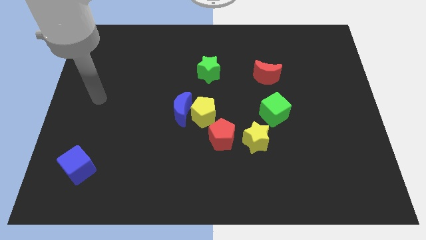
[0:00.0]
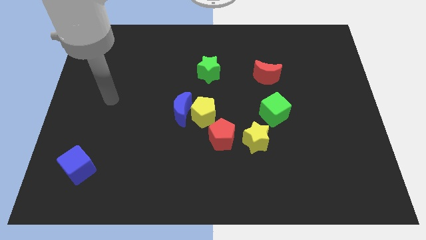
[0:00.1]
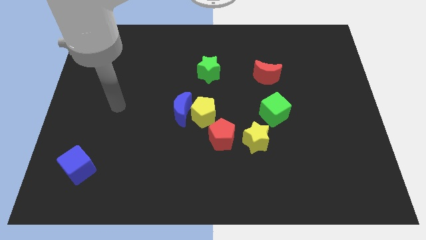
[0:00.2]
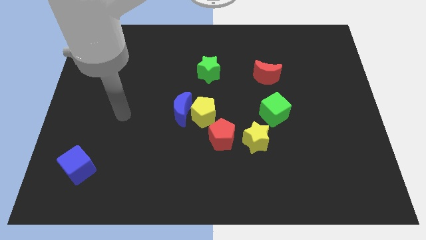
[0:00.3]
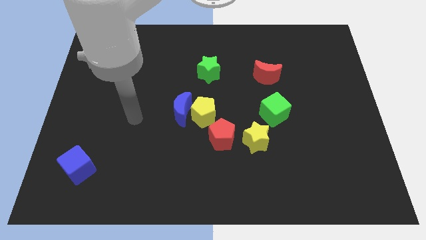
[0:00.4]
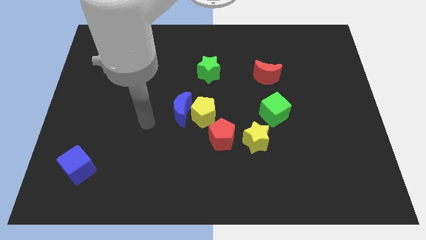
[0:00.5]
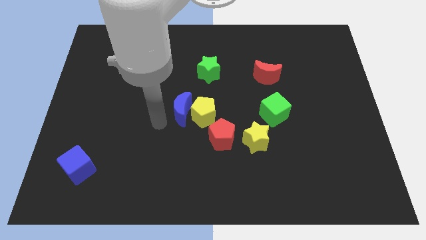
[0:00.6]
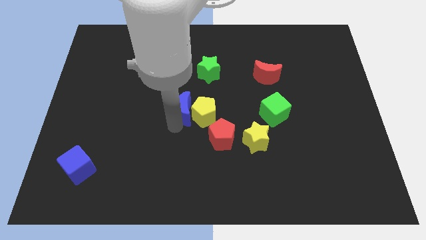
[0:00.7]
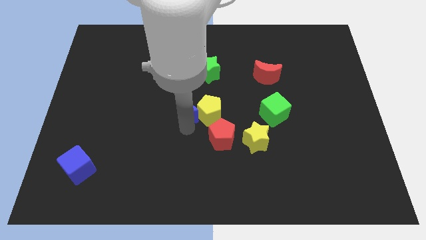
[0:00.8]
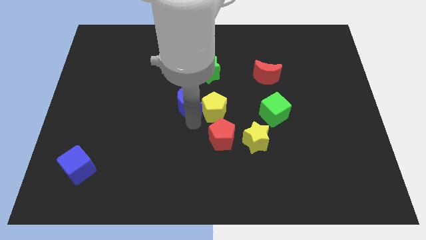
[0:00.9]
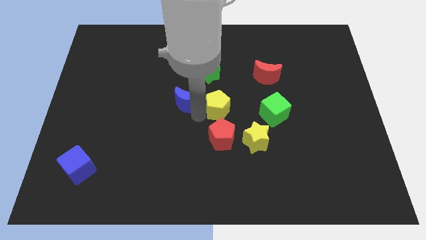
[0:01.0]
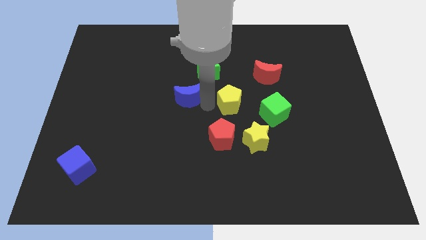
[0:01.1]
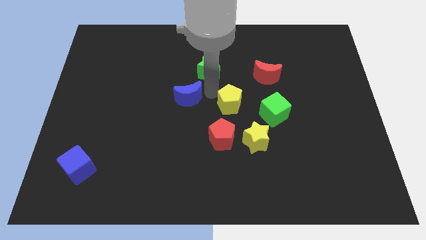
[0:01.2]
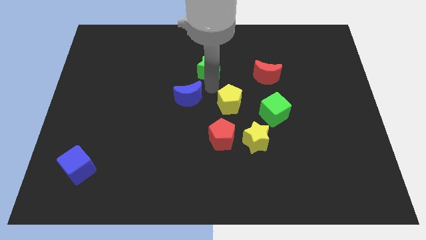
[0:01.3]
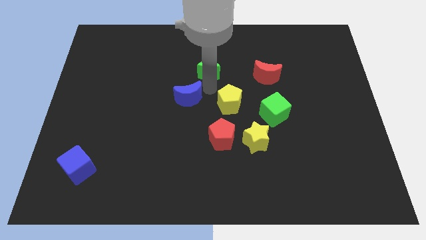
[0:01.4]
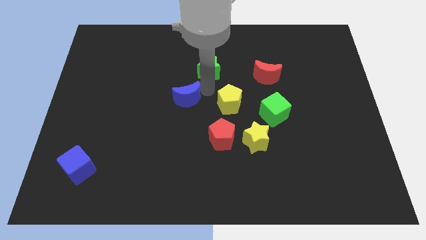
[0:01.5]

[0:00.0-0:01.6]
pull the blue moon apart from the yellow pentagon

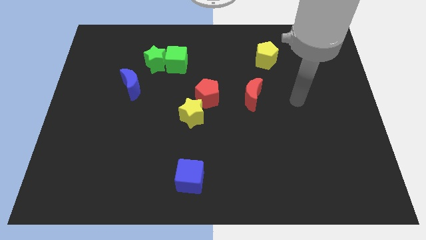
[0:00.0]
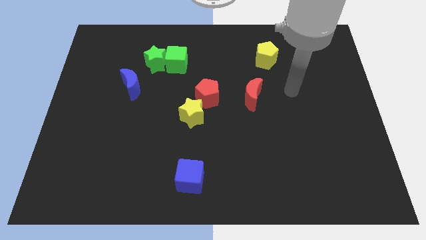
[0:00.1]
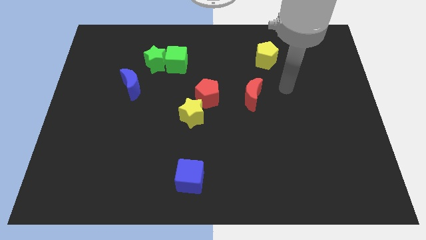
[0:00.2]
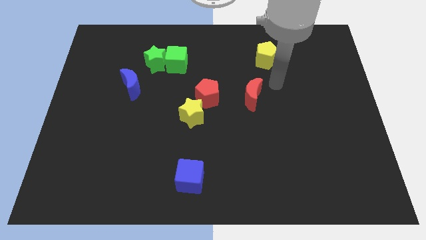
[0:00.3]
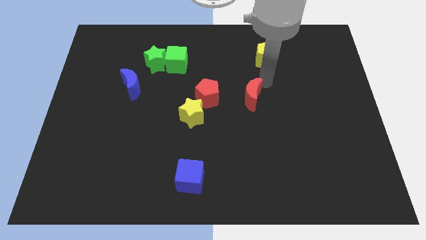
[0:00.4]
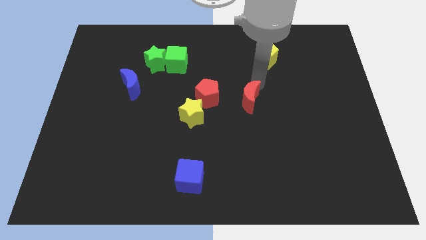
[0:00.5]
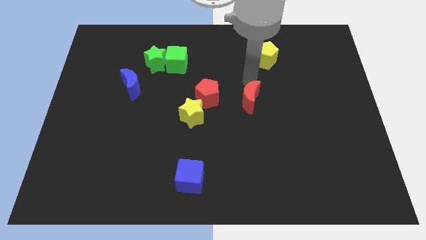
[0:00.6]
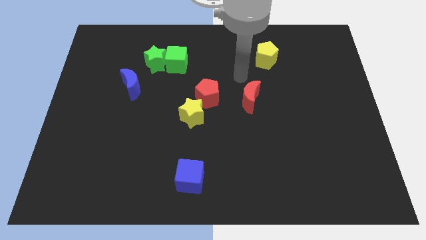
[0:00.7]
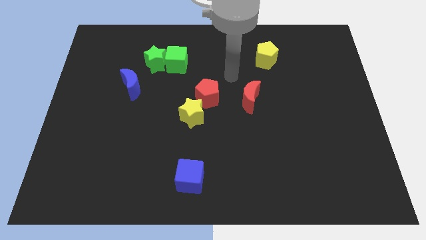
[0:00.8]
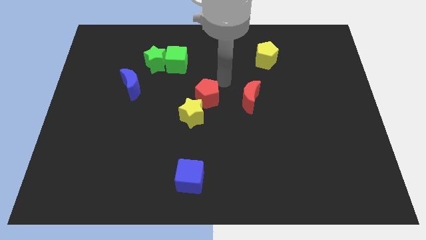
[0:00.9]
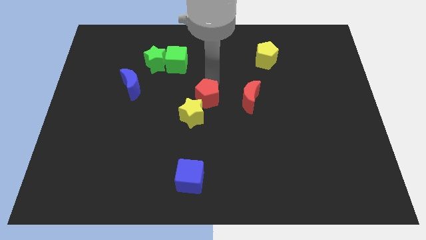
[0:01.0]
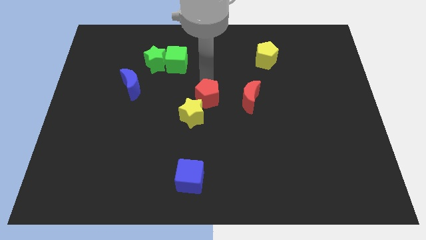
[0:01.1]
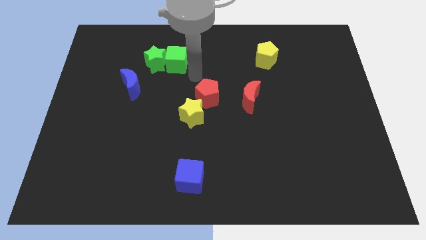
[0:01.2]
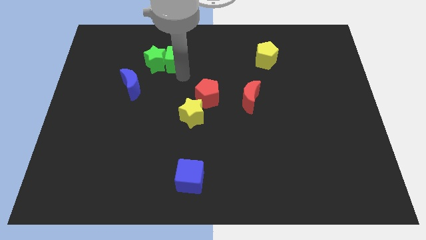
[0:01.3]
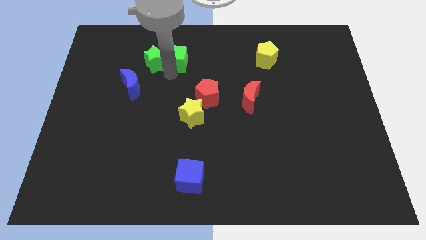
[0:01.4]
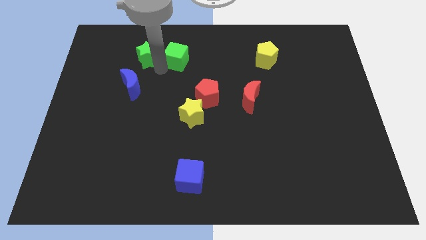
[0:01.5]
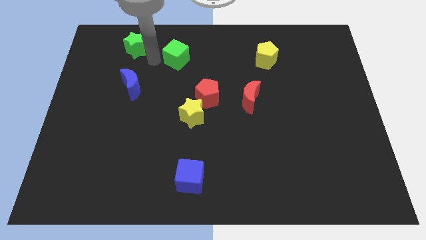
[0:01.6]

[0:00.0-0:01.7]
move the green cube away from the green star

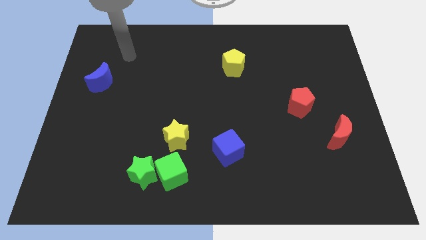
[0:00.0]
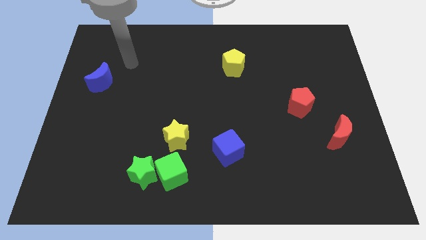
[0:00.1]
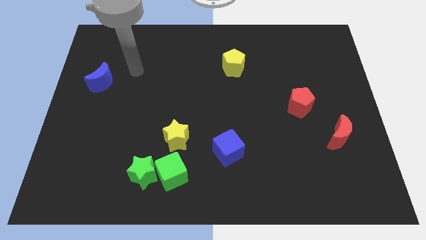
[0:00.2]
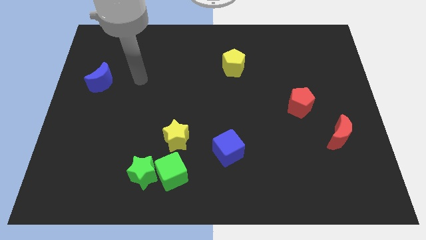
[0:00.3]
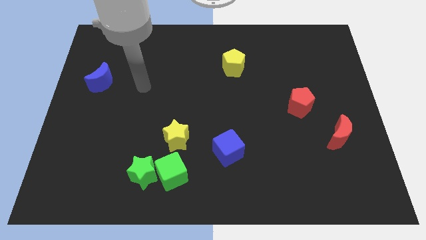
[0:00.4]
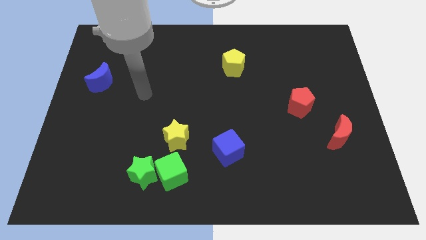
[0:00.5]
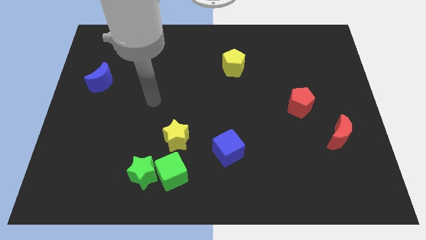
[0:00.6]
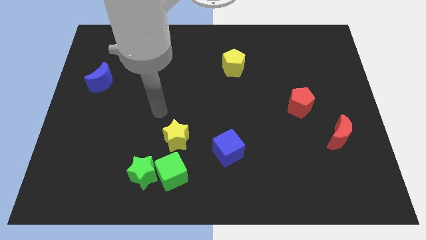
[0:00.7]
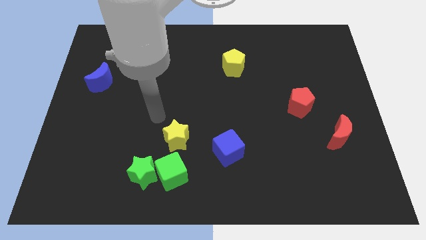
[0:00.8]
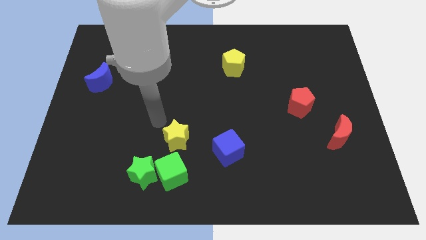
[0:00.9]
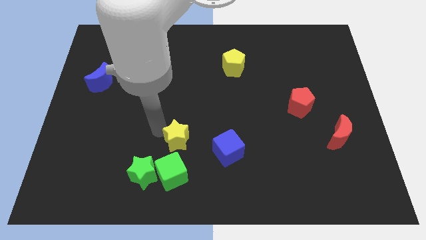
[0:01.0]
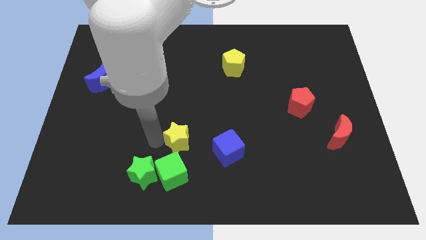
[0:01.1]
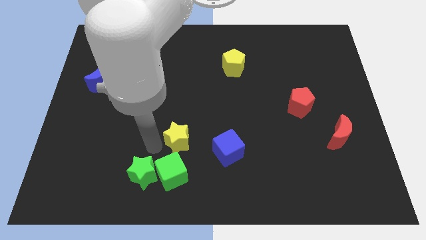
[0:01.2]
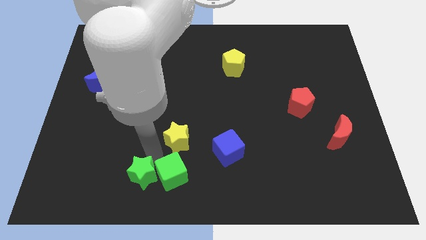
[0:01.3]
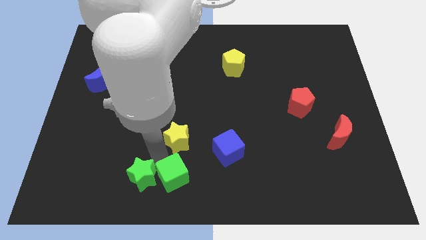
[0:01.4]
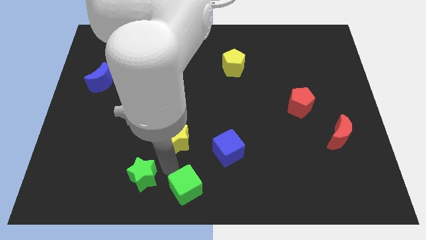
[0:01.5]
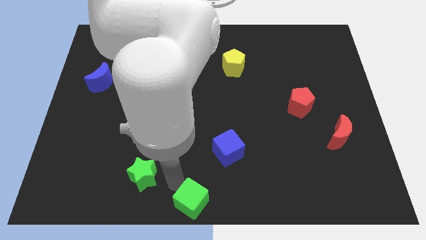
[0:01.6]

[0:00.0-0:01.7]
move the green star away from the green cube

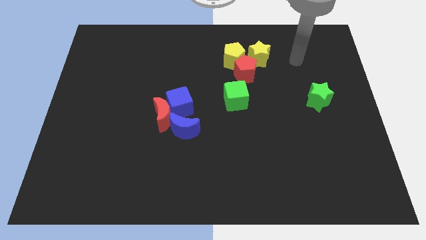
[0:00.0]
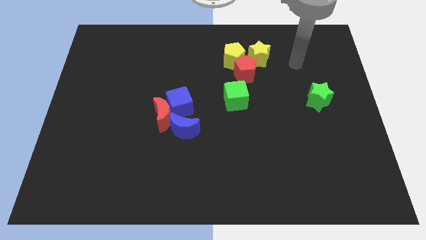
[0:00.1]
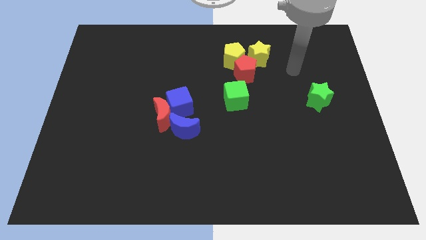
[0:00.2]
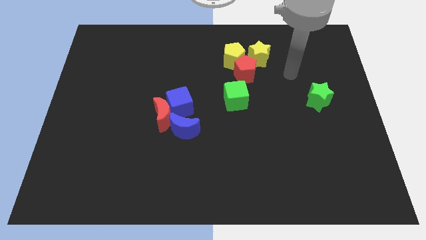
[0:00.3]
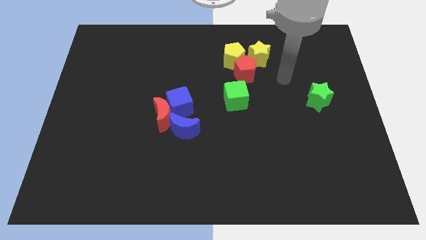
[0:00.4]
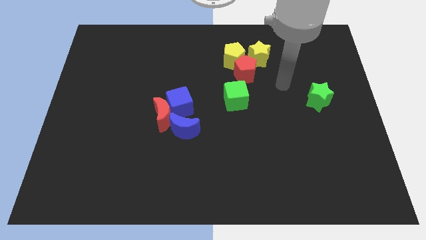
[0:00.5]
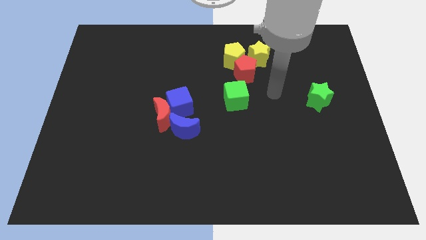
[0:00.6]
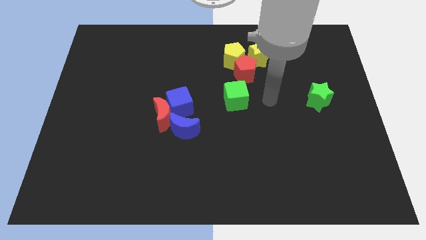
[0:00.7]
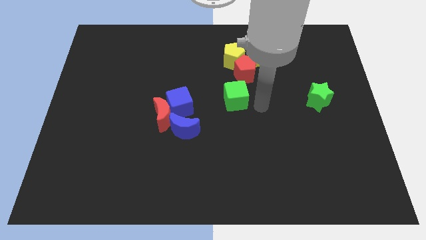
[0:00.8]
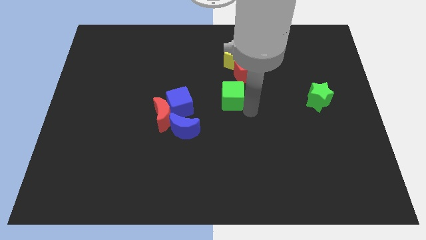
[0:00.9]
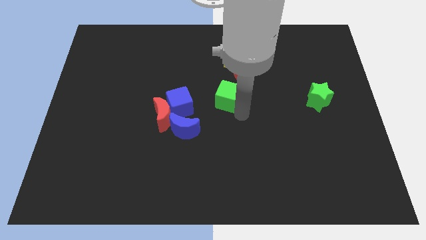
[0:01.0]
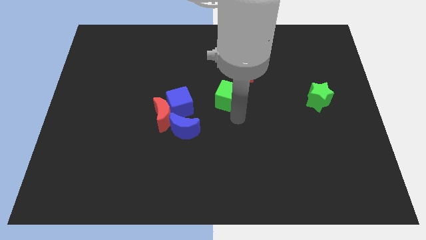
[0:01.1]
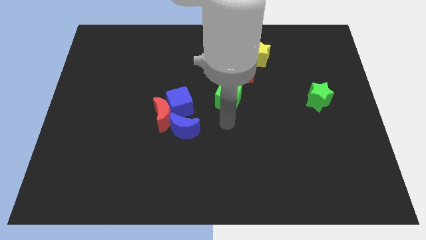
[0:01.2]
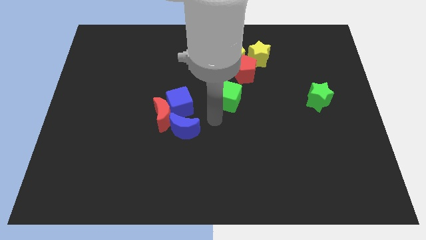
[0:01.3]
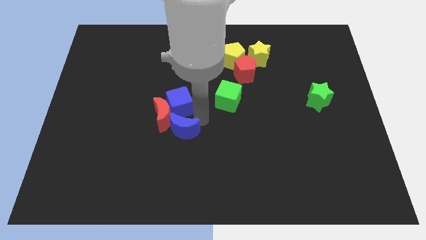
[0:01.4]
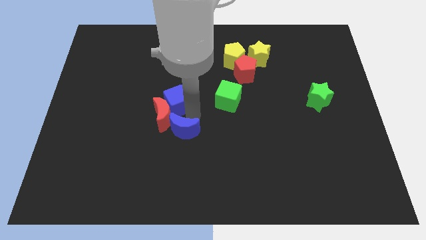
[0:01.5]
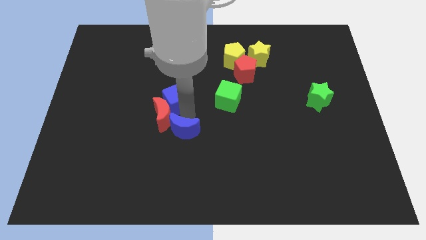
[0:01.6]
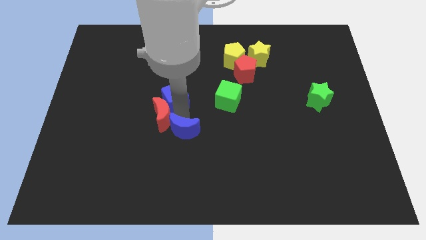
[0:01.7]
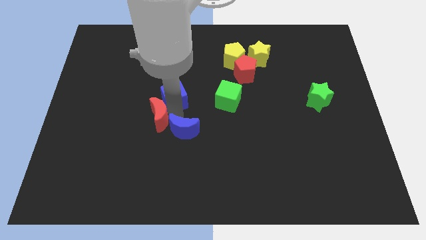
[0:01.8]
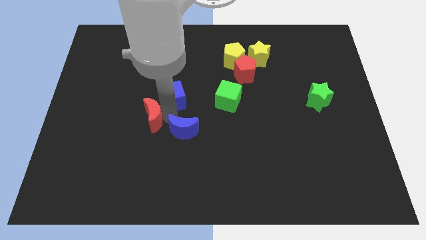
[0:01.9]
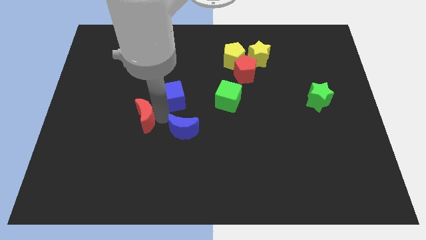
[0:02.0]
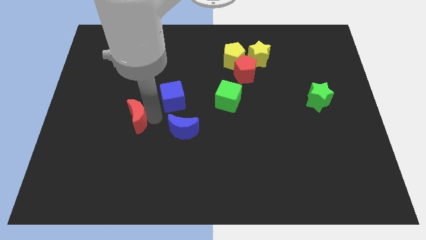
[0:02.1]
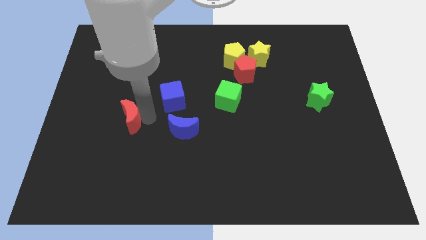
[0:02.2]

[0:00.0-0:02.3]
separate the red moon from the blue cube and blue moon

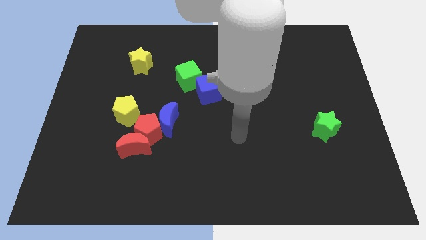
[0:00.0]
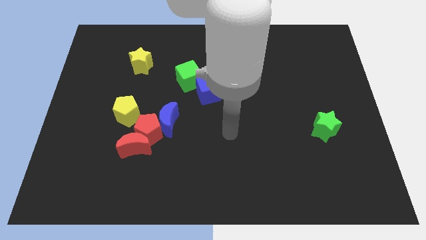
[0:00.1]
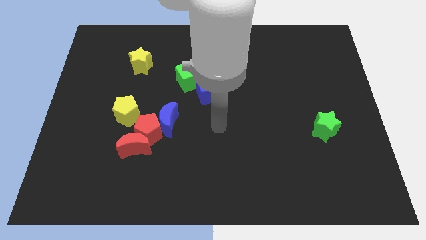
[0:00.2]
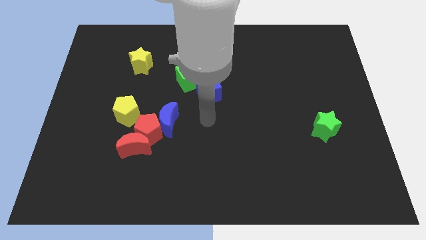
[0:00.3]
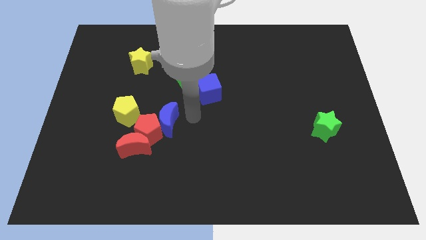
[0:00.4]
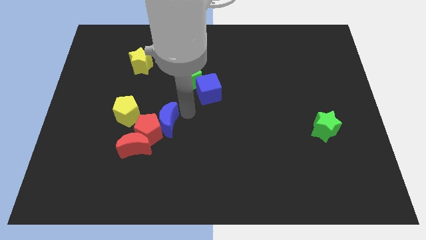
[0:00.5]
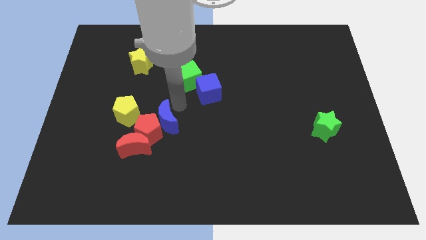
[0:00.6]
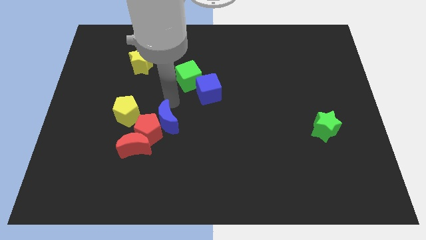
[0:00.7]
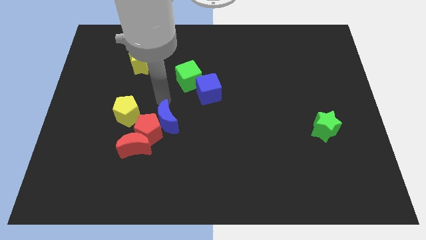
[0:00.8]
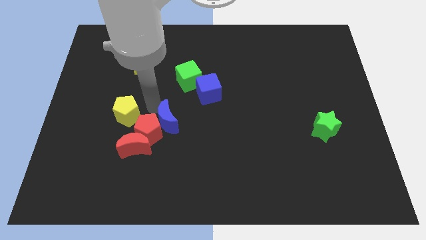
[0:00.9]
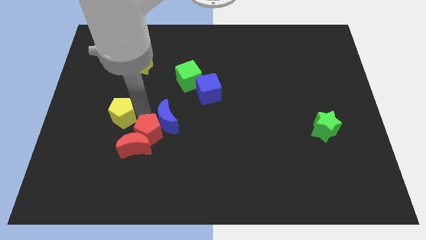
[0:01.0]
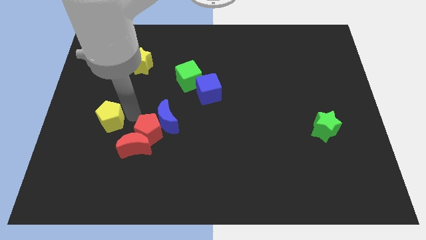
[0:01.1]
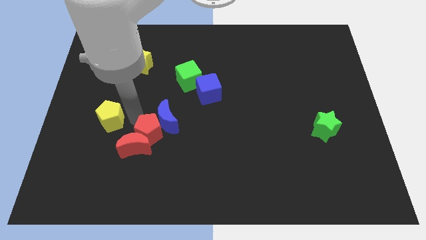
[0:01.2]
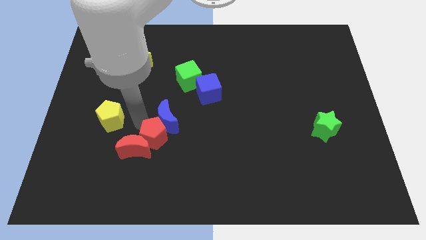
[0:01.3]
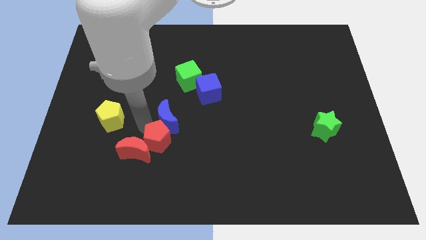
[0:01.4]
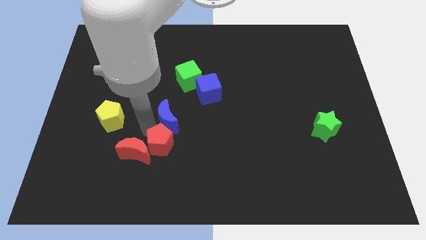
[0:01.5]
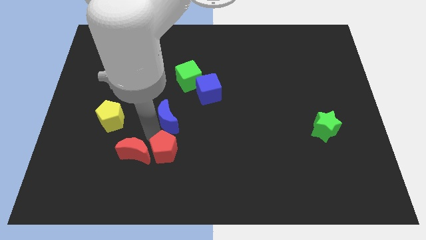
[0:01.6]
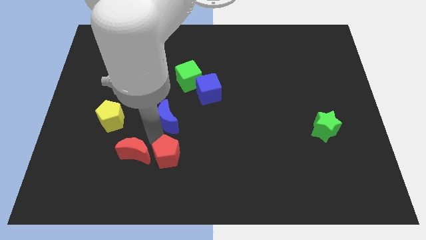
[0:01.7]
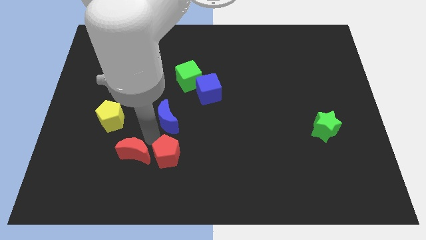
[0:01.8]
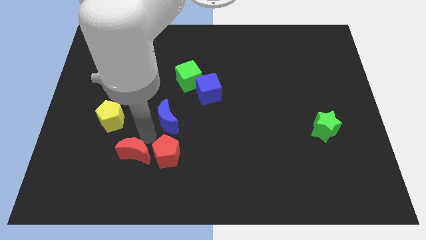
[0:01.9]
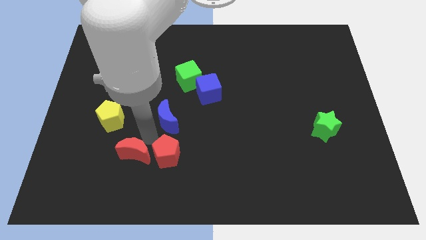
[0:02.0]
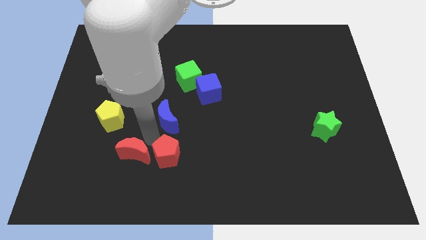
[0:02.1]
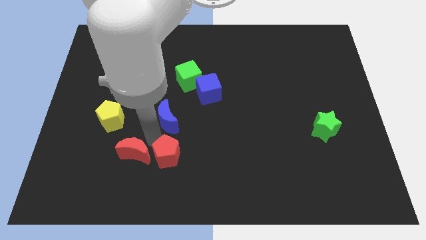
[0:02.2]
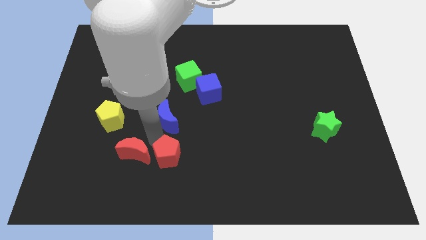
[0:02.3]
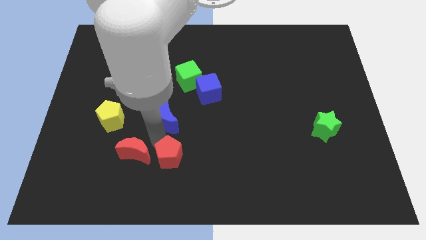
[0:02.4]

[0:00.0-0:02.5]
pull the red pentagon apart from the red moon, blue moon, and yellow pentagon
